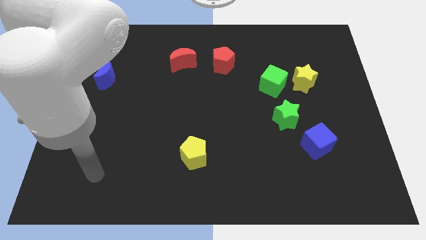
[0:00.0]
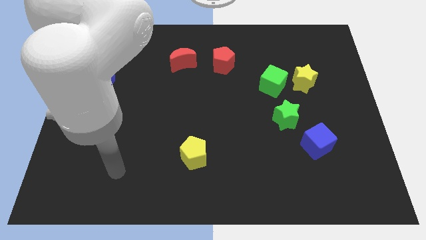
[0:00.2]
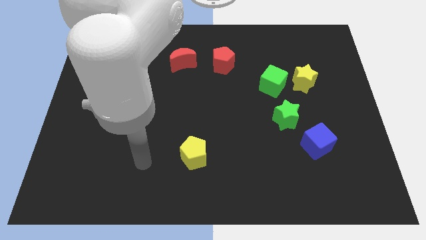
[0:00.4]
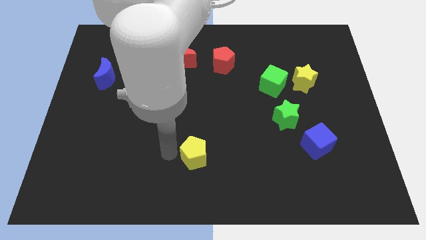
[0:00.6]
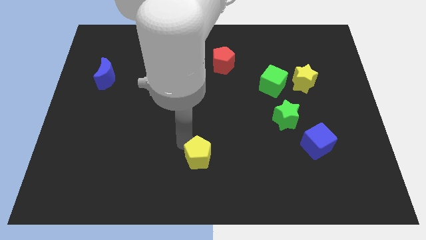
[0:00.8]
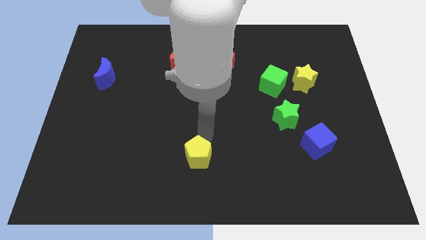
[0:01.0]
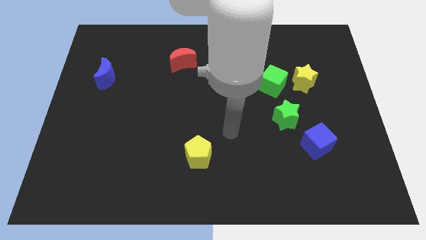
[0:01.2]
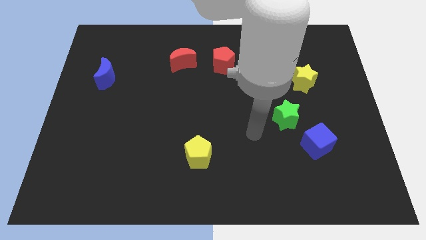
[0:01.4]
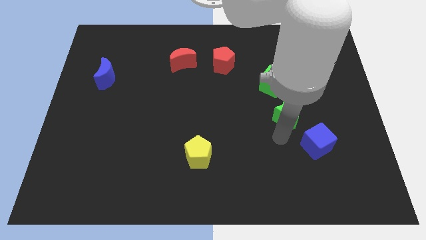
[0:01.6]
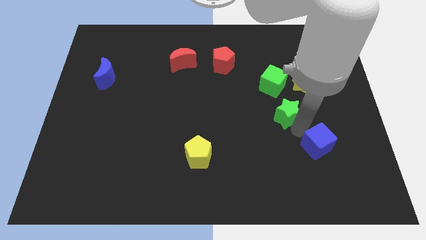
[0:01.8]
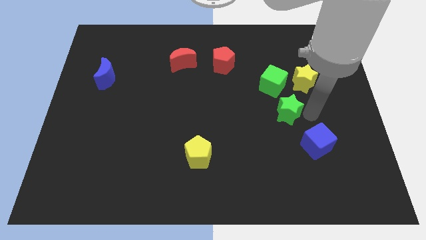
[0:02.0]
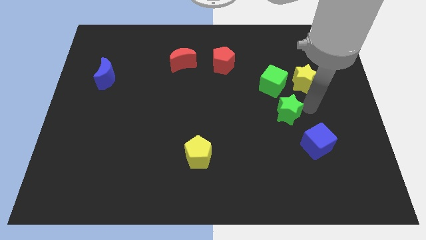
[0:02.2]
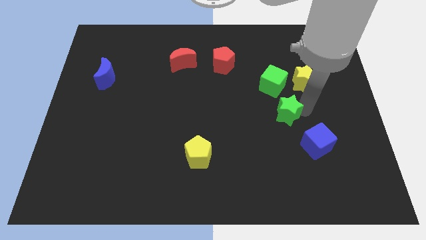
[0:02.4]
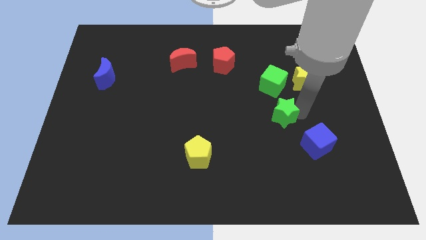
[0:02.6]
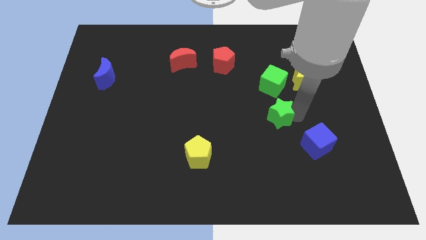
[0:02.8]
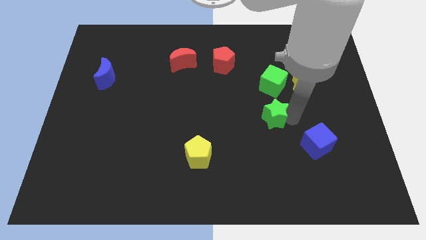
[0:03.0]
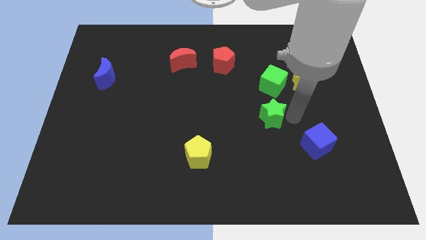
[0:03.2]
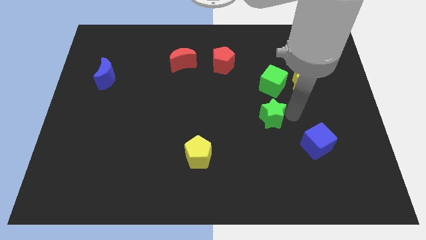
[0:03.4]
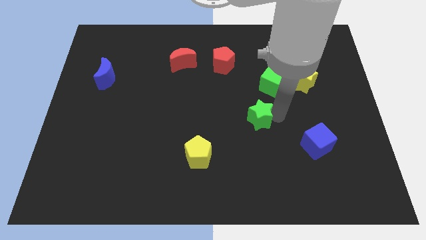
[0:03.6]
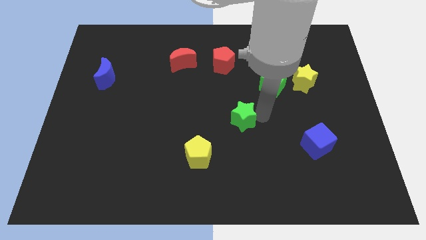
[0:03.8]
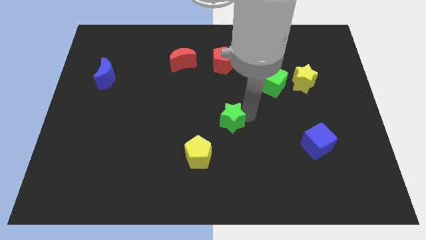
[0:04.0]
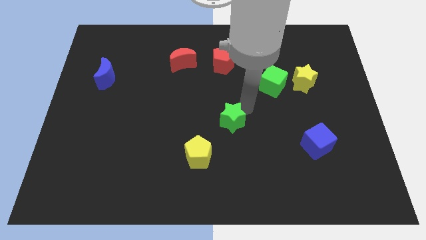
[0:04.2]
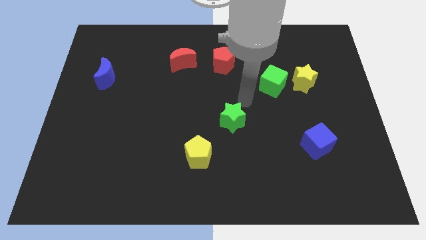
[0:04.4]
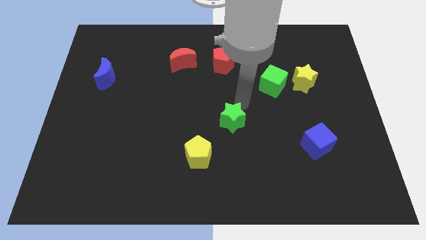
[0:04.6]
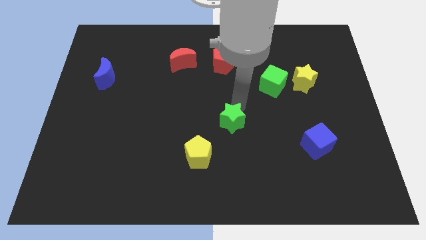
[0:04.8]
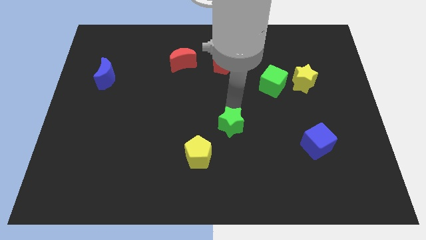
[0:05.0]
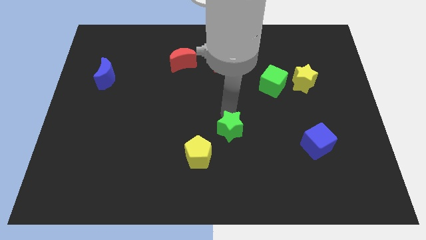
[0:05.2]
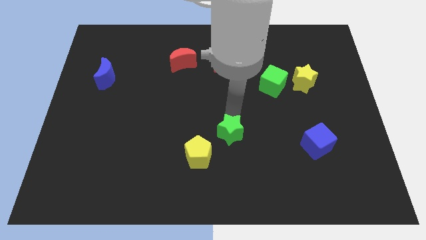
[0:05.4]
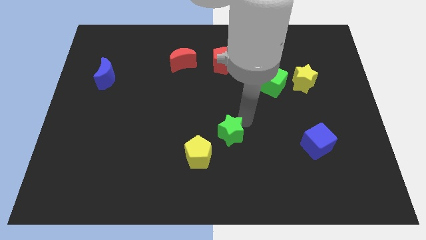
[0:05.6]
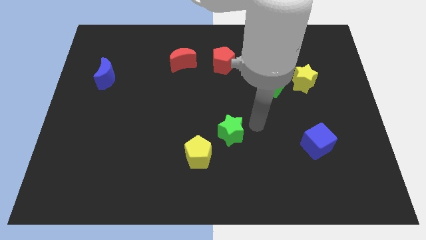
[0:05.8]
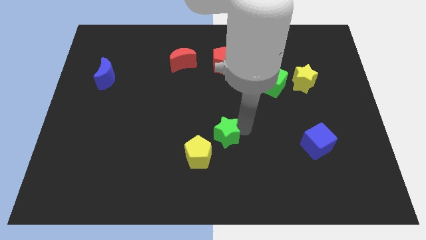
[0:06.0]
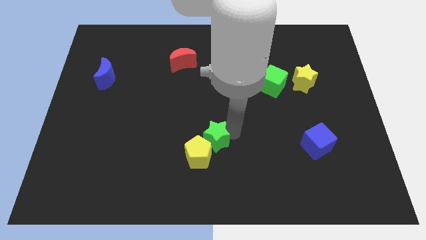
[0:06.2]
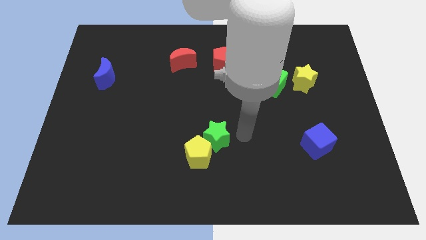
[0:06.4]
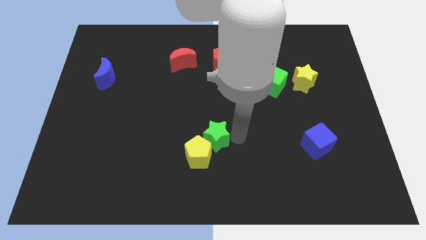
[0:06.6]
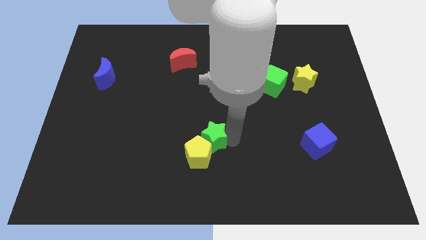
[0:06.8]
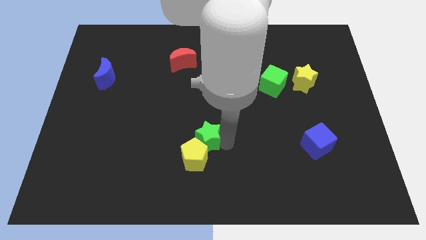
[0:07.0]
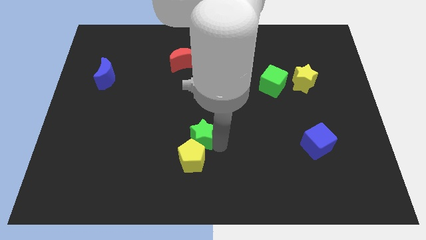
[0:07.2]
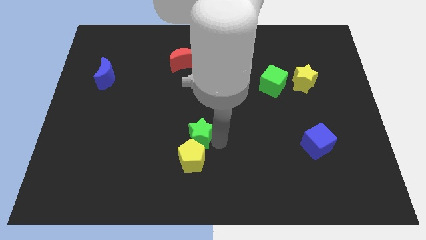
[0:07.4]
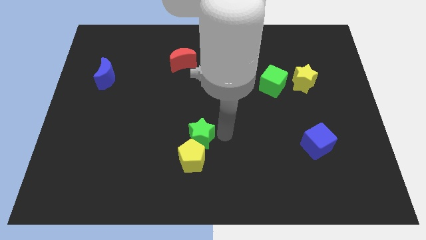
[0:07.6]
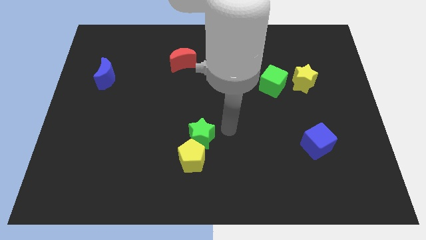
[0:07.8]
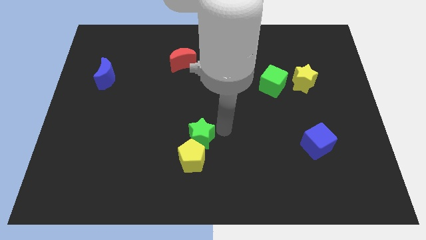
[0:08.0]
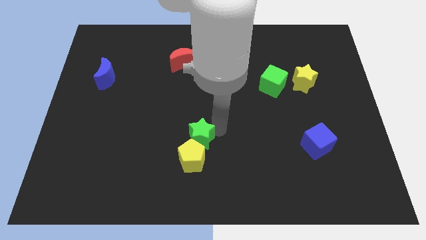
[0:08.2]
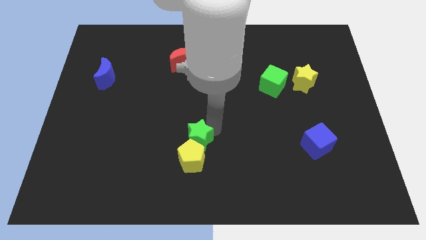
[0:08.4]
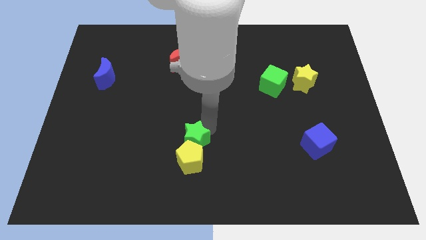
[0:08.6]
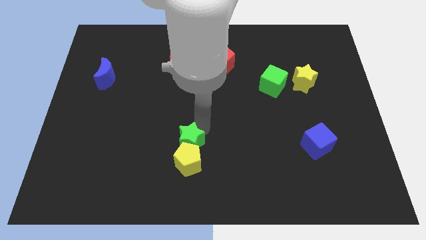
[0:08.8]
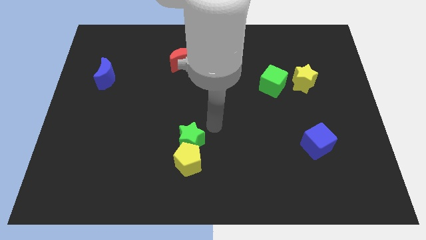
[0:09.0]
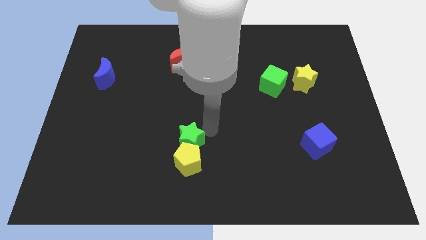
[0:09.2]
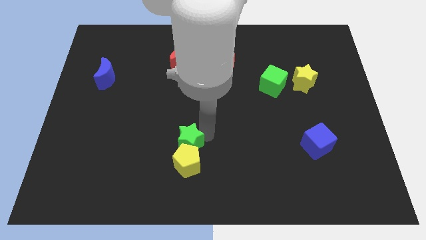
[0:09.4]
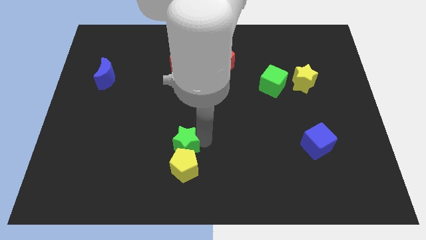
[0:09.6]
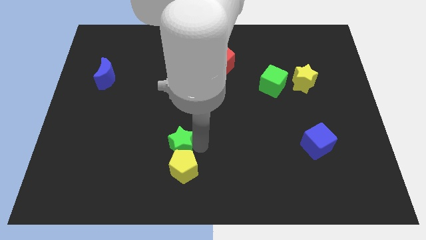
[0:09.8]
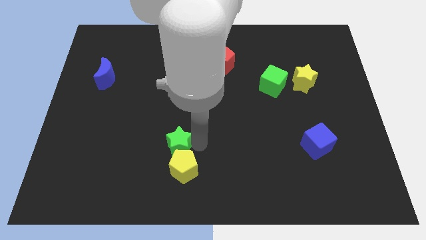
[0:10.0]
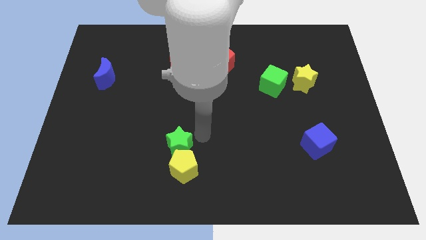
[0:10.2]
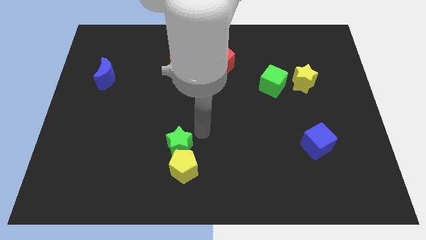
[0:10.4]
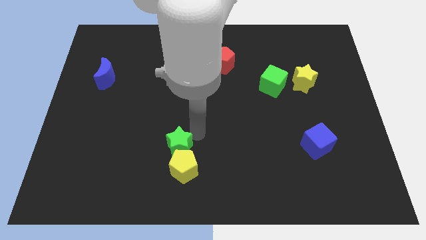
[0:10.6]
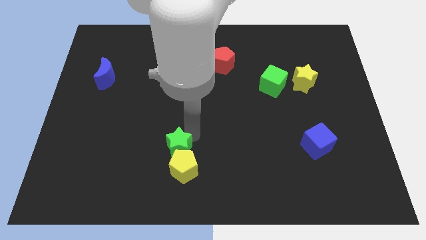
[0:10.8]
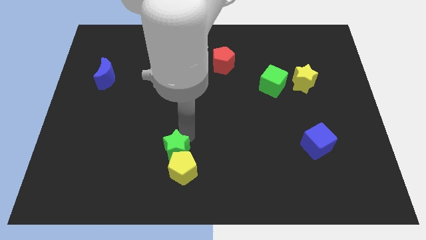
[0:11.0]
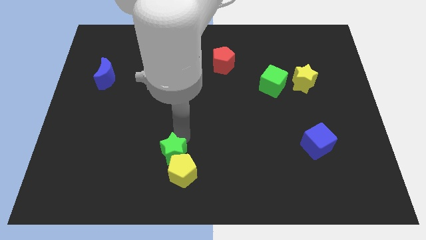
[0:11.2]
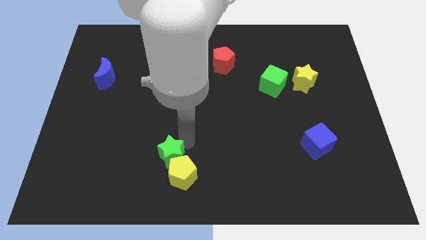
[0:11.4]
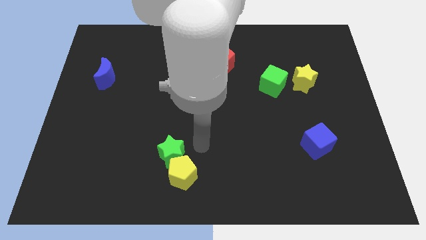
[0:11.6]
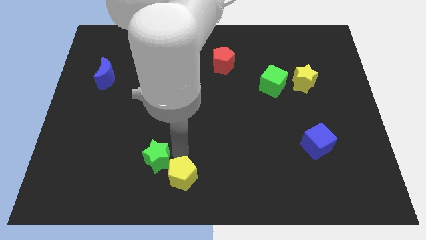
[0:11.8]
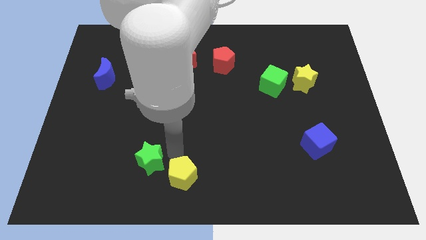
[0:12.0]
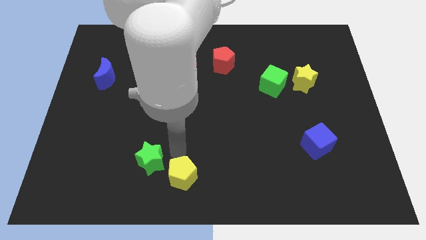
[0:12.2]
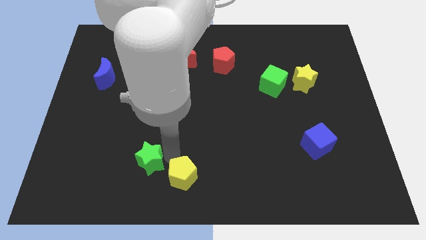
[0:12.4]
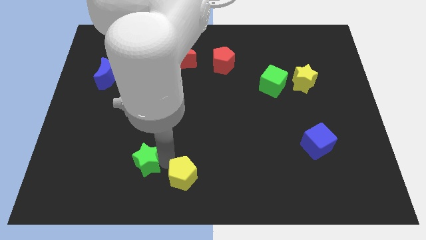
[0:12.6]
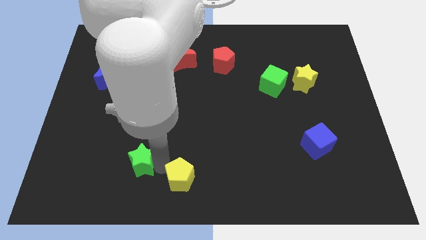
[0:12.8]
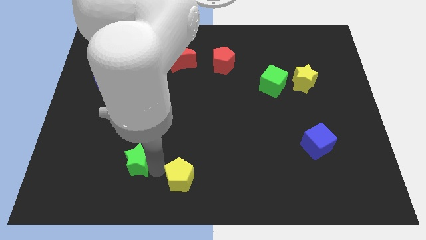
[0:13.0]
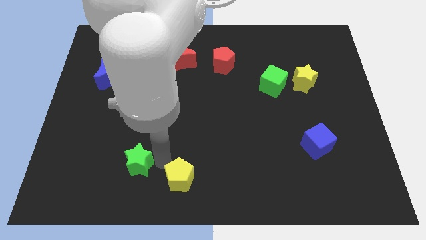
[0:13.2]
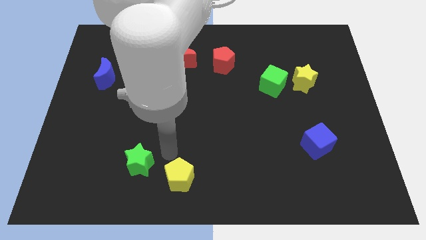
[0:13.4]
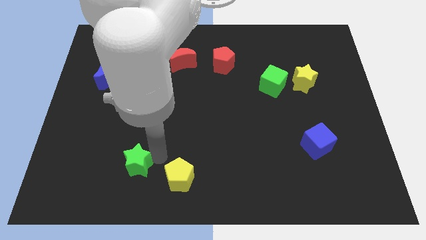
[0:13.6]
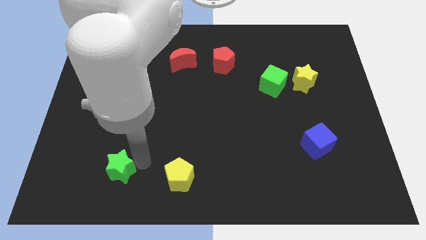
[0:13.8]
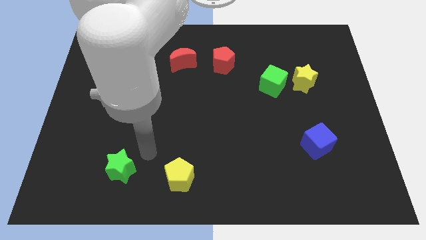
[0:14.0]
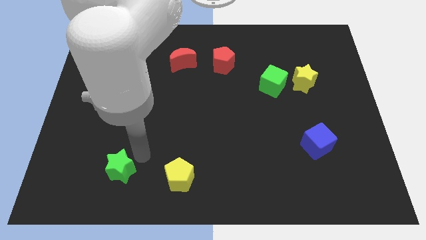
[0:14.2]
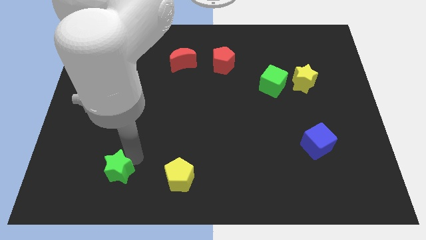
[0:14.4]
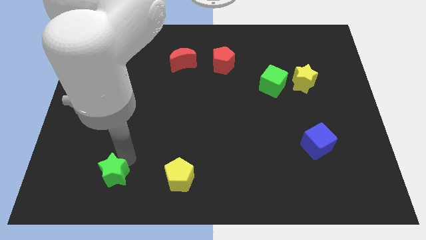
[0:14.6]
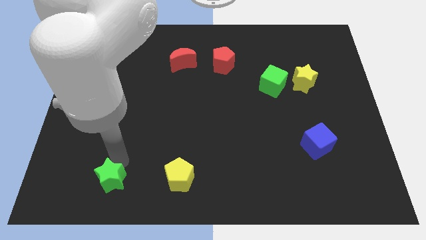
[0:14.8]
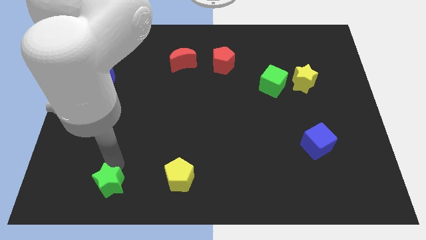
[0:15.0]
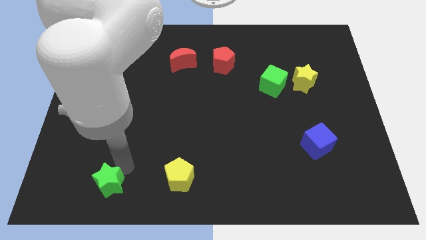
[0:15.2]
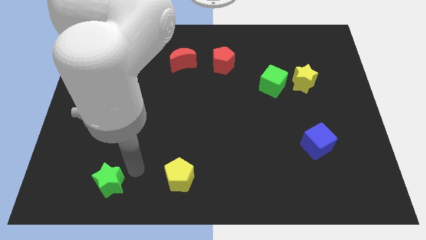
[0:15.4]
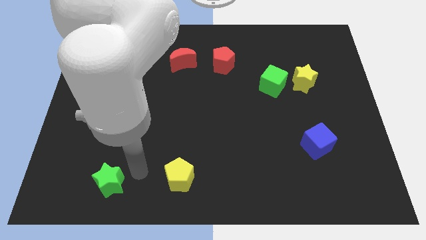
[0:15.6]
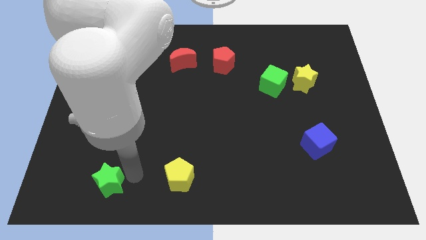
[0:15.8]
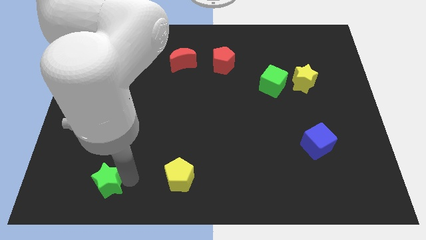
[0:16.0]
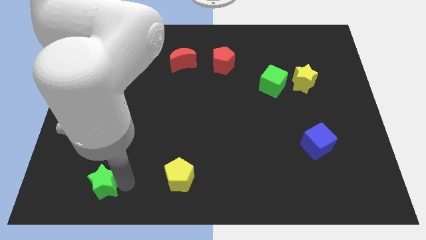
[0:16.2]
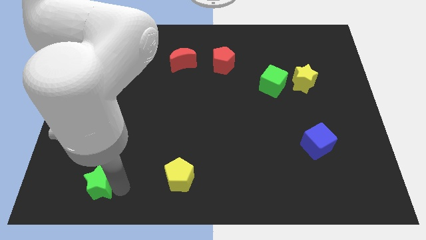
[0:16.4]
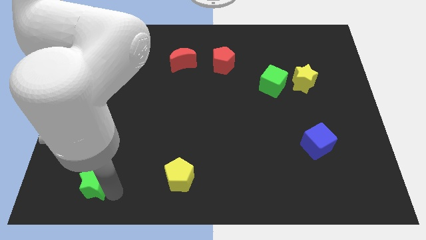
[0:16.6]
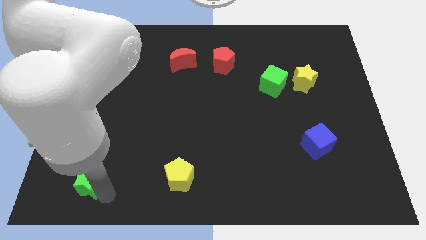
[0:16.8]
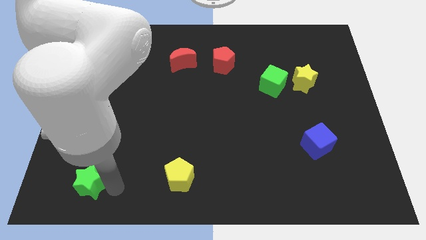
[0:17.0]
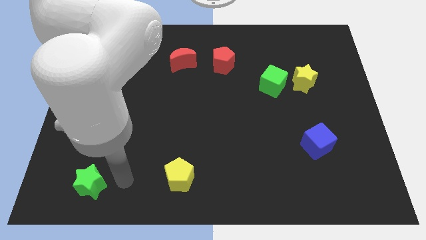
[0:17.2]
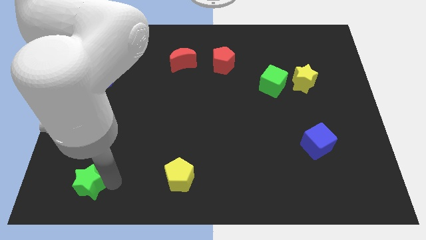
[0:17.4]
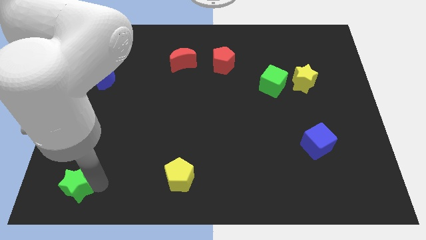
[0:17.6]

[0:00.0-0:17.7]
slide the green star to the lower left corner
